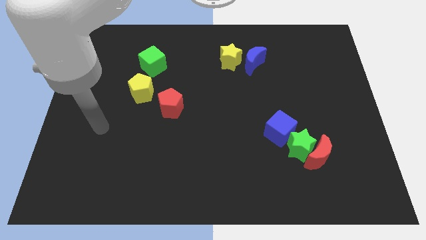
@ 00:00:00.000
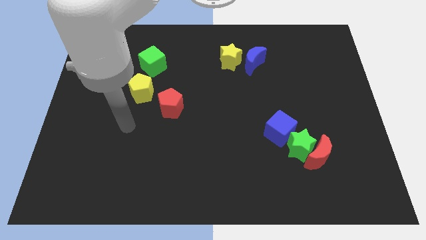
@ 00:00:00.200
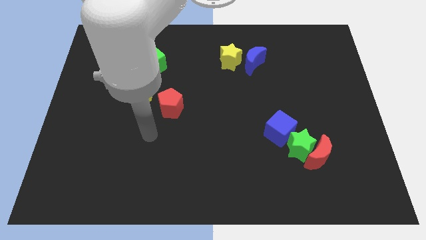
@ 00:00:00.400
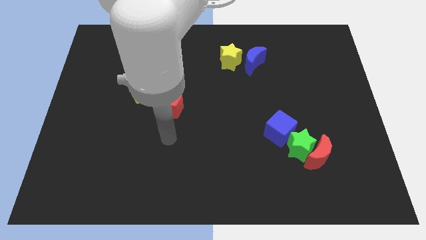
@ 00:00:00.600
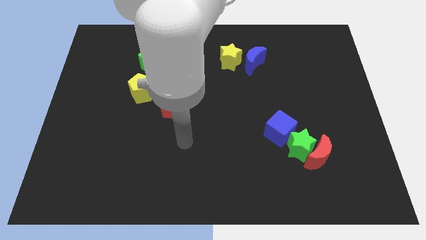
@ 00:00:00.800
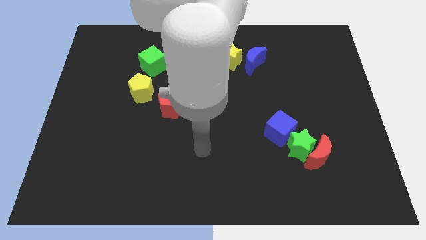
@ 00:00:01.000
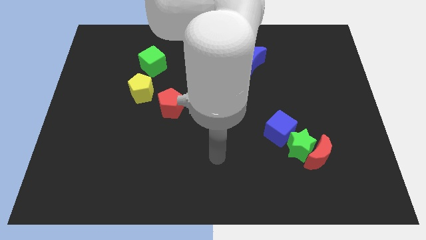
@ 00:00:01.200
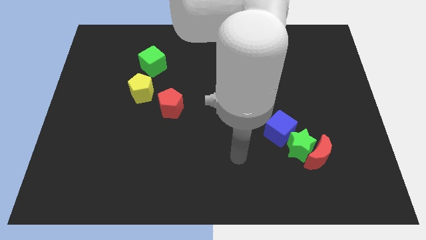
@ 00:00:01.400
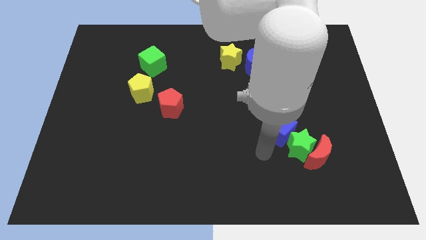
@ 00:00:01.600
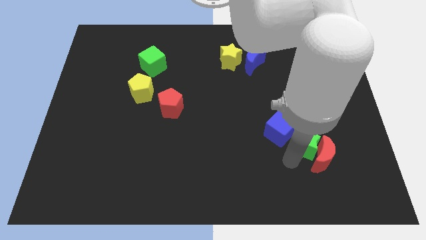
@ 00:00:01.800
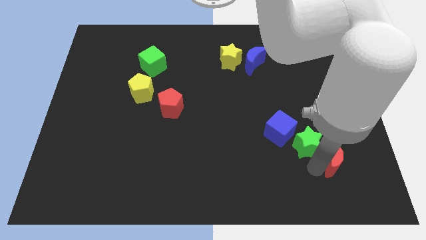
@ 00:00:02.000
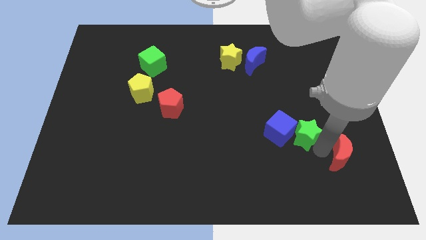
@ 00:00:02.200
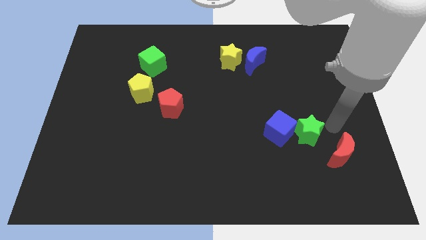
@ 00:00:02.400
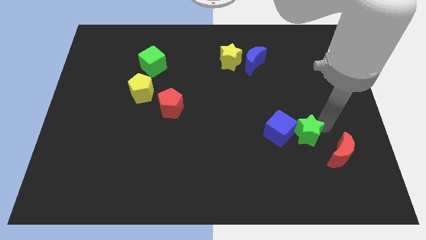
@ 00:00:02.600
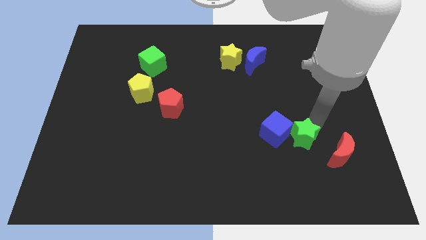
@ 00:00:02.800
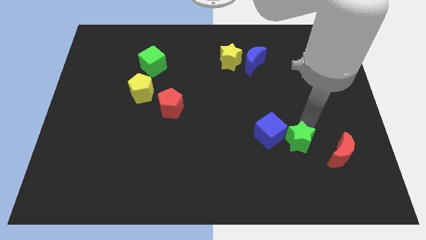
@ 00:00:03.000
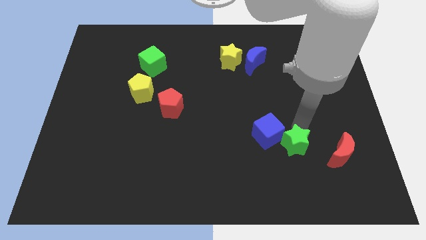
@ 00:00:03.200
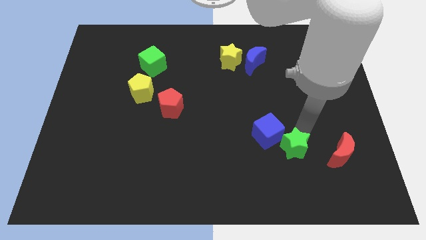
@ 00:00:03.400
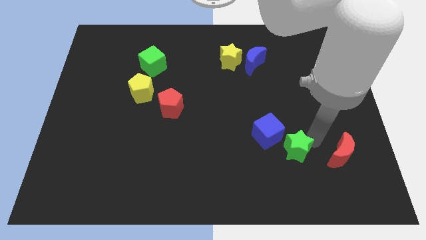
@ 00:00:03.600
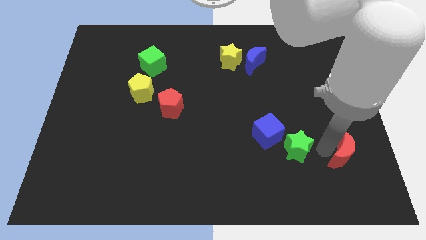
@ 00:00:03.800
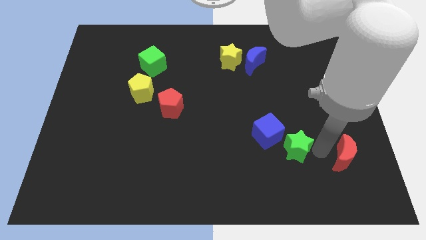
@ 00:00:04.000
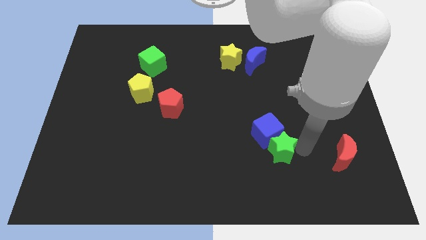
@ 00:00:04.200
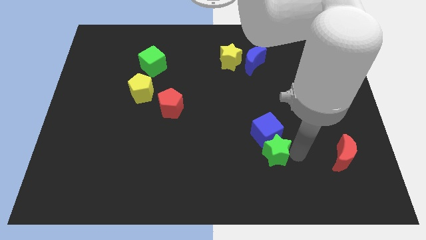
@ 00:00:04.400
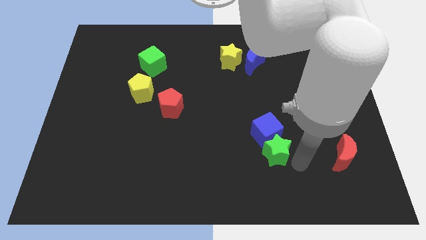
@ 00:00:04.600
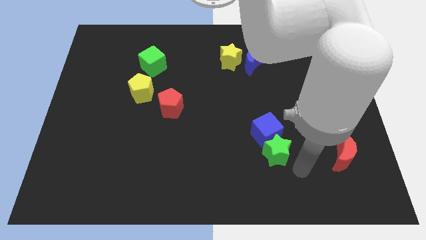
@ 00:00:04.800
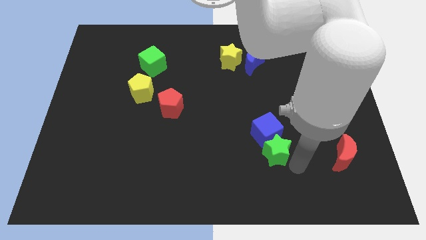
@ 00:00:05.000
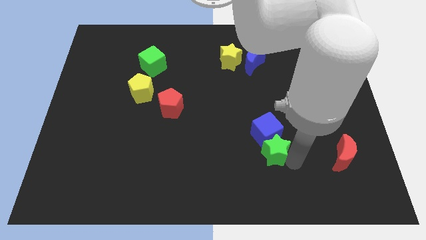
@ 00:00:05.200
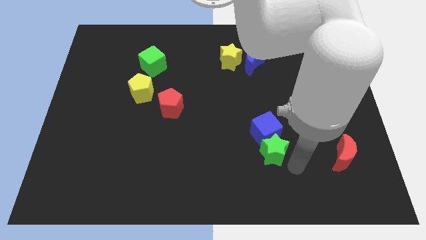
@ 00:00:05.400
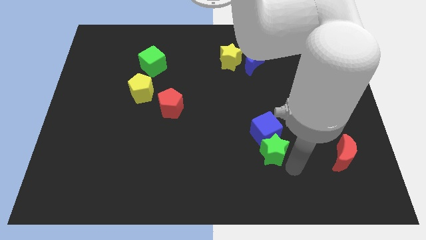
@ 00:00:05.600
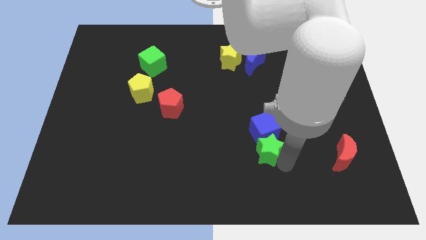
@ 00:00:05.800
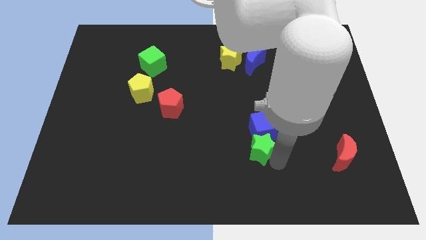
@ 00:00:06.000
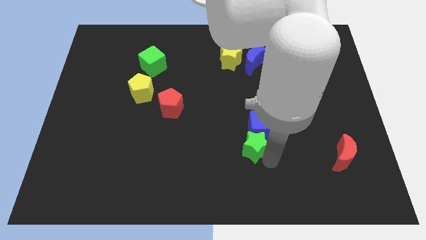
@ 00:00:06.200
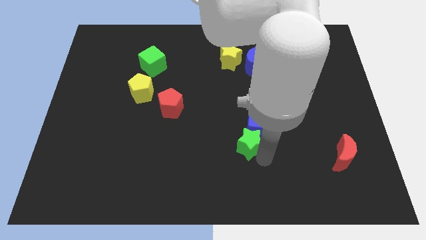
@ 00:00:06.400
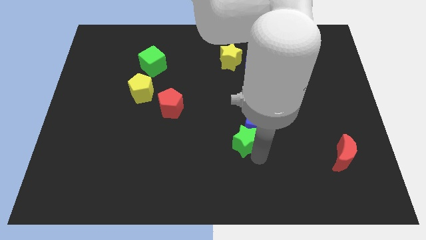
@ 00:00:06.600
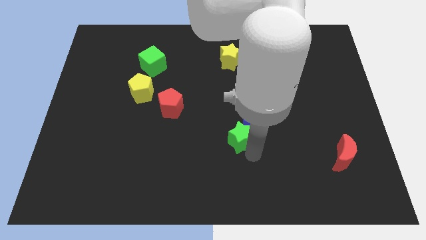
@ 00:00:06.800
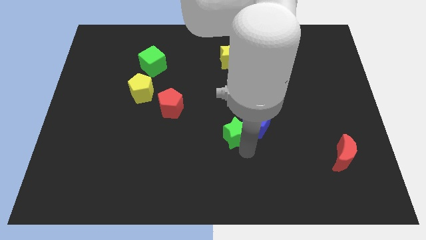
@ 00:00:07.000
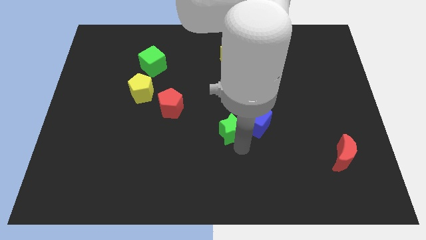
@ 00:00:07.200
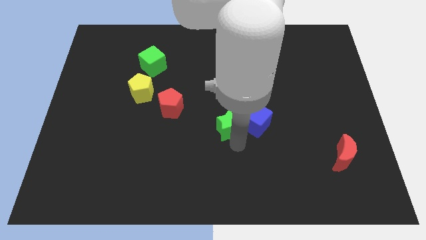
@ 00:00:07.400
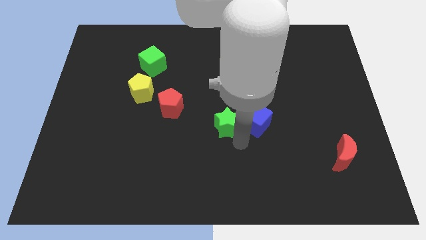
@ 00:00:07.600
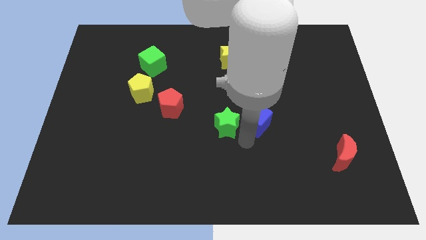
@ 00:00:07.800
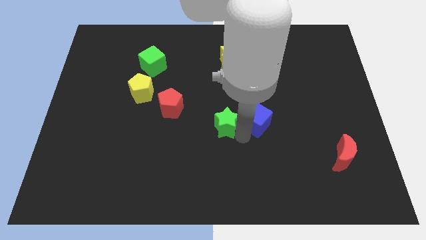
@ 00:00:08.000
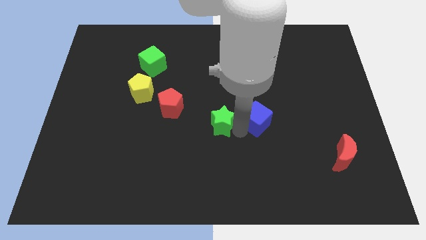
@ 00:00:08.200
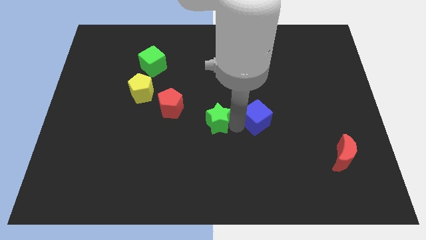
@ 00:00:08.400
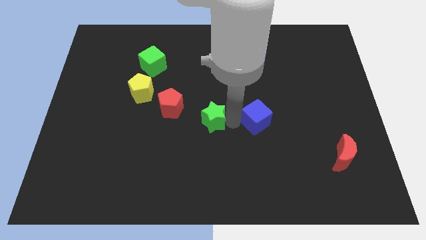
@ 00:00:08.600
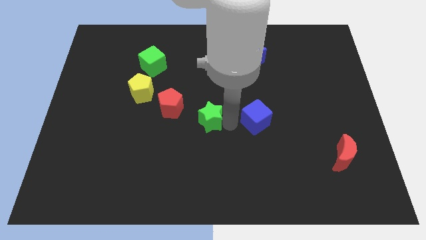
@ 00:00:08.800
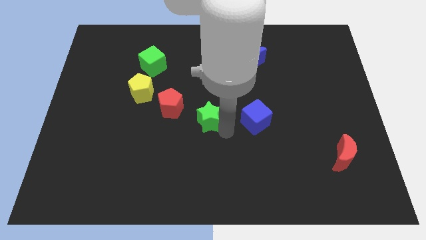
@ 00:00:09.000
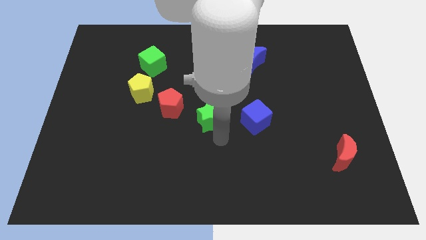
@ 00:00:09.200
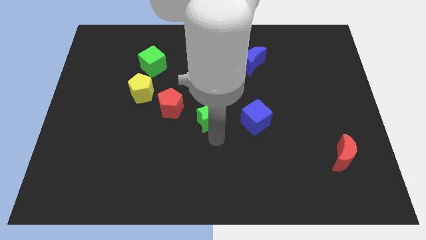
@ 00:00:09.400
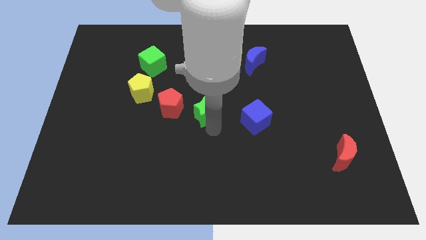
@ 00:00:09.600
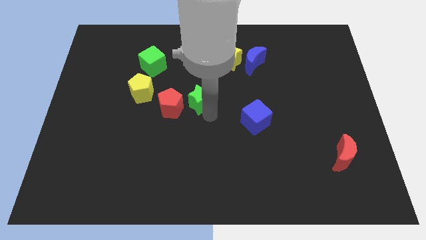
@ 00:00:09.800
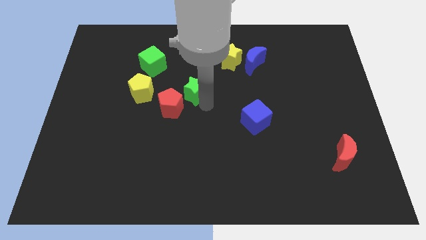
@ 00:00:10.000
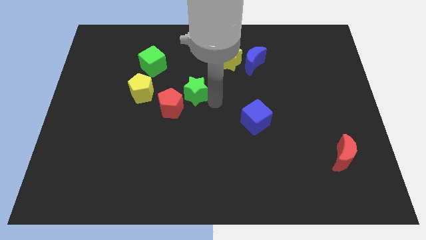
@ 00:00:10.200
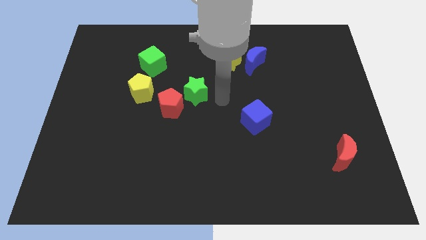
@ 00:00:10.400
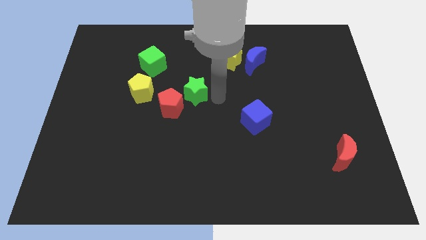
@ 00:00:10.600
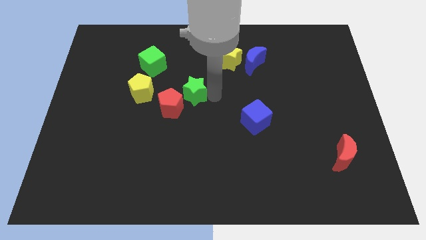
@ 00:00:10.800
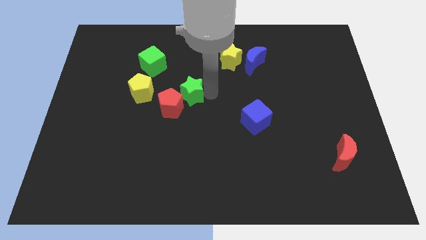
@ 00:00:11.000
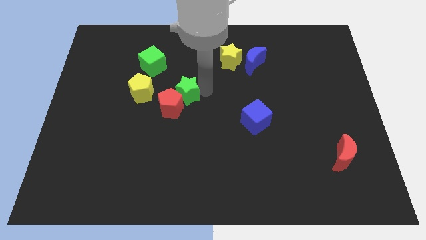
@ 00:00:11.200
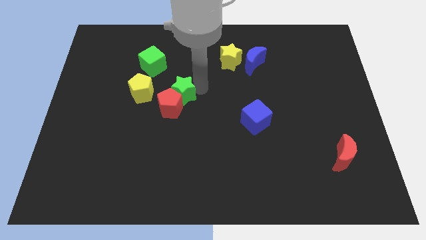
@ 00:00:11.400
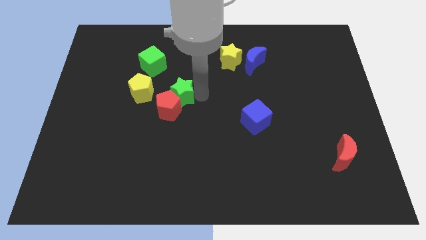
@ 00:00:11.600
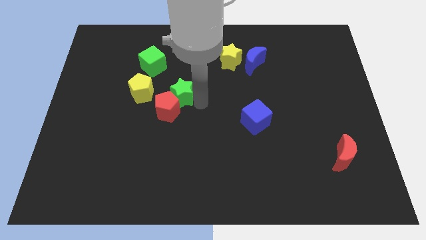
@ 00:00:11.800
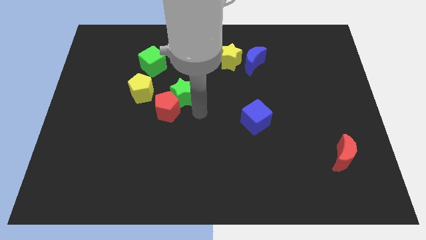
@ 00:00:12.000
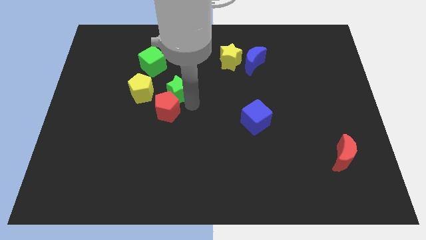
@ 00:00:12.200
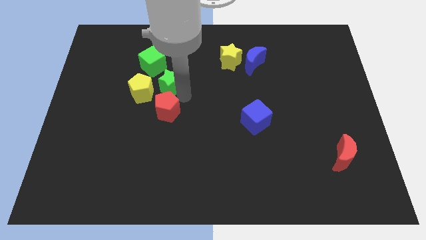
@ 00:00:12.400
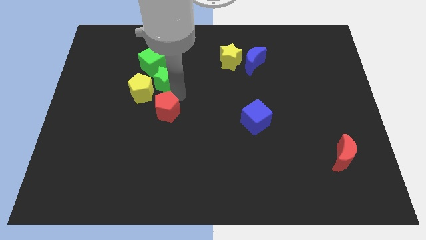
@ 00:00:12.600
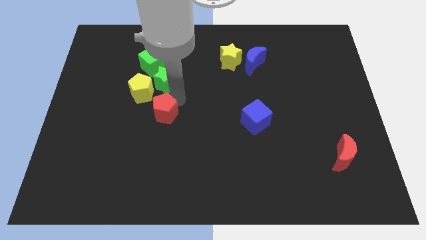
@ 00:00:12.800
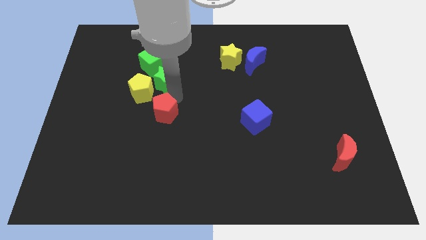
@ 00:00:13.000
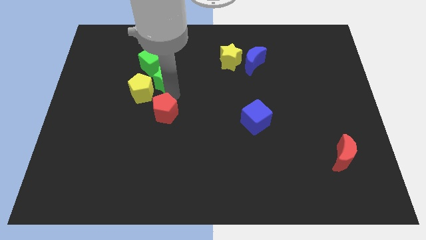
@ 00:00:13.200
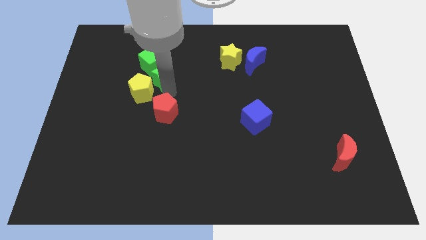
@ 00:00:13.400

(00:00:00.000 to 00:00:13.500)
slide the green star close to the green cube
